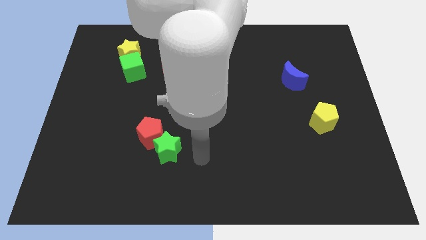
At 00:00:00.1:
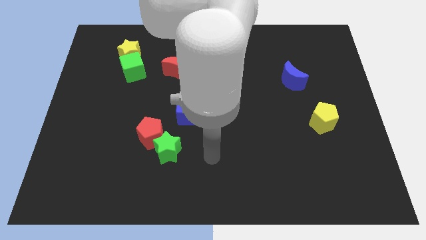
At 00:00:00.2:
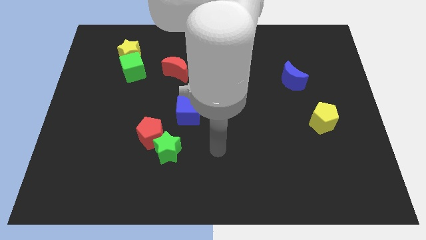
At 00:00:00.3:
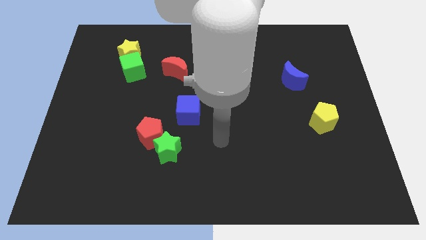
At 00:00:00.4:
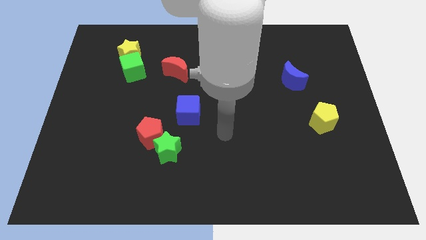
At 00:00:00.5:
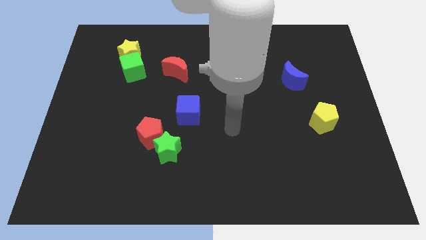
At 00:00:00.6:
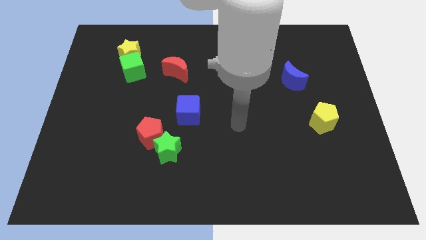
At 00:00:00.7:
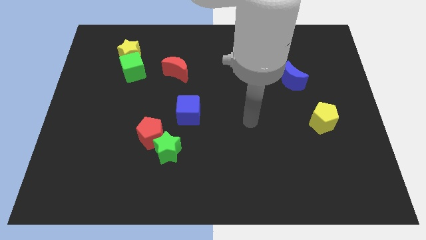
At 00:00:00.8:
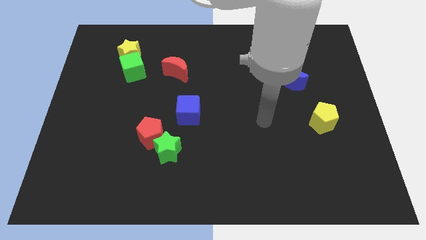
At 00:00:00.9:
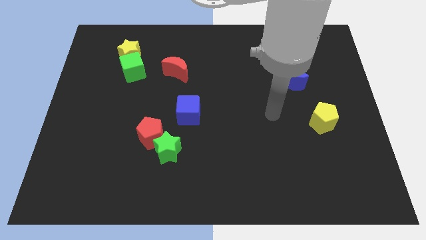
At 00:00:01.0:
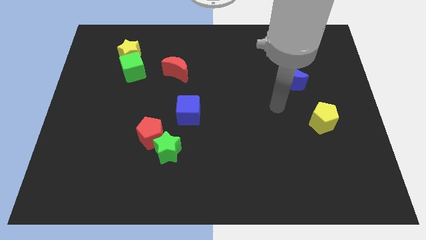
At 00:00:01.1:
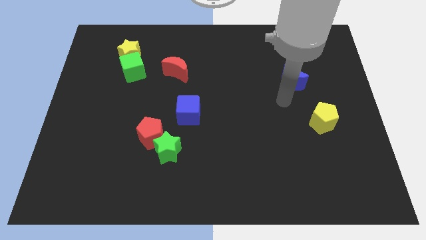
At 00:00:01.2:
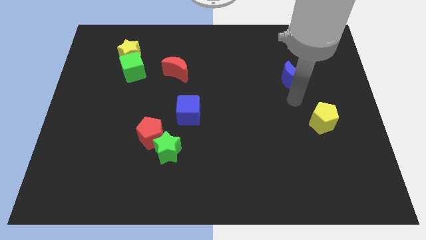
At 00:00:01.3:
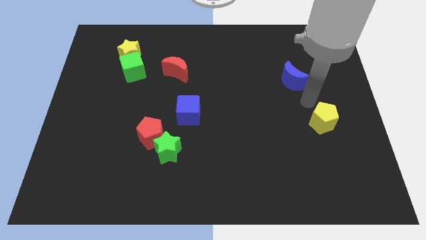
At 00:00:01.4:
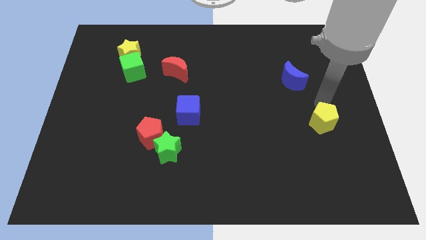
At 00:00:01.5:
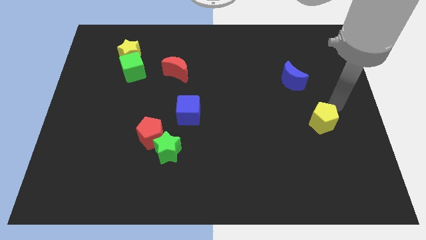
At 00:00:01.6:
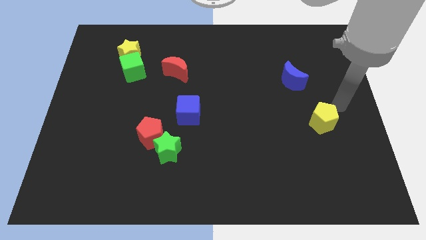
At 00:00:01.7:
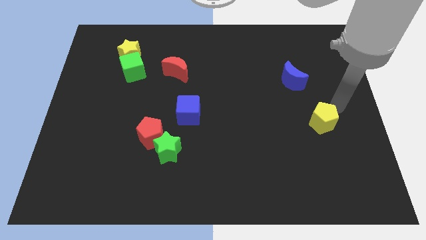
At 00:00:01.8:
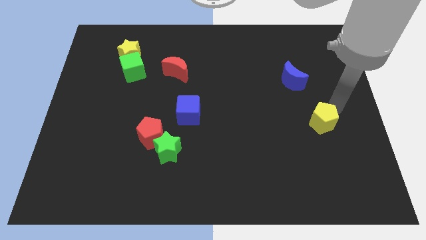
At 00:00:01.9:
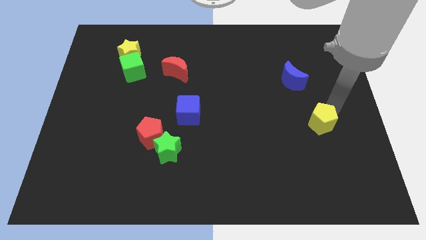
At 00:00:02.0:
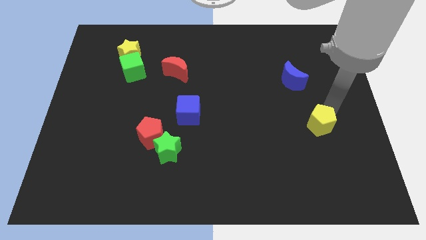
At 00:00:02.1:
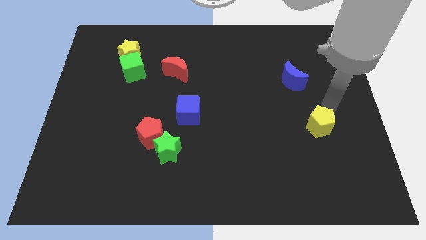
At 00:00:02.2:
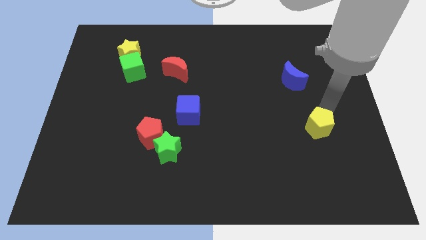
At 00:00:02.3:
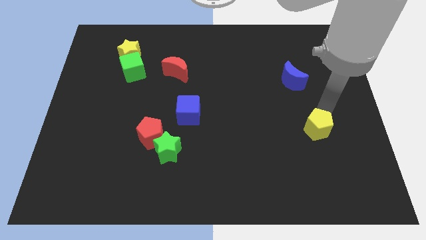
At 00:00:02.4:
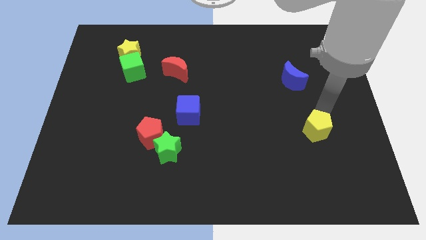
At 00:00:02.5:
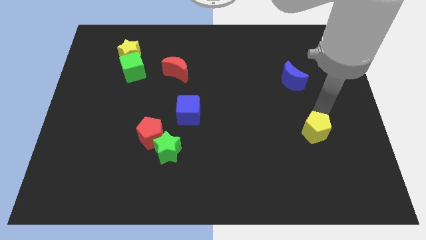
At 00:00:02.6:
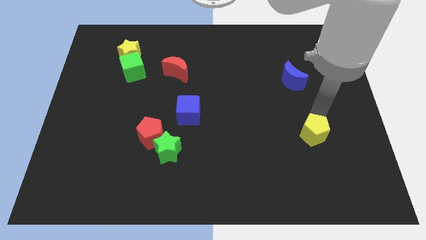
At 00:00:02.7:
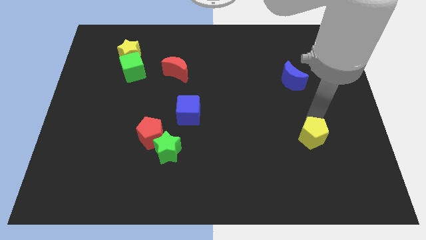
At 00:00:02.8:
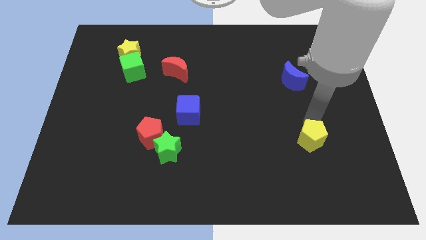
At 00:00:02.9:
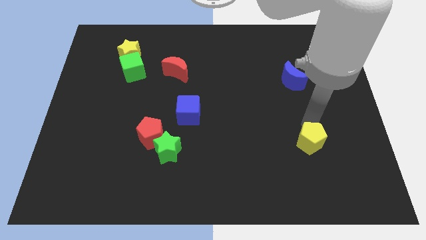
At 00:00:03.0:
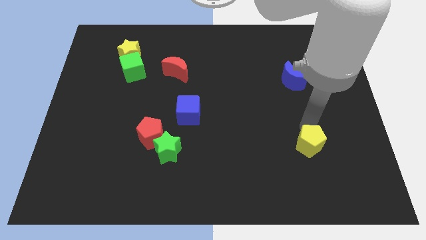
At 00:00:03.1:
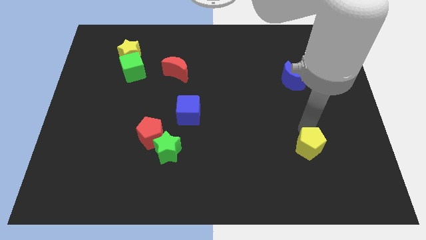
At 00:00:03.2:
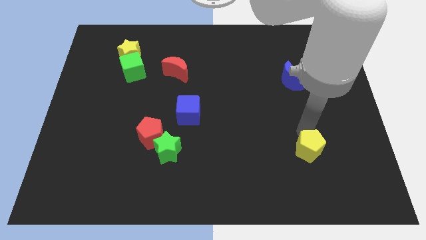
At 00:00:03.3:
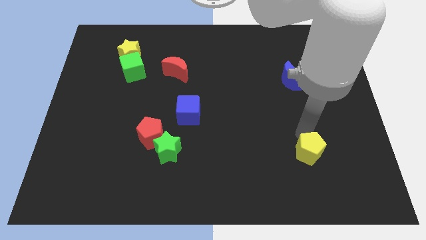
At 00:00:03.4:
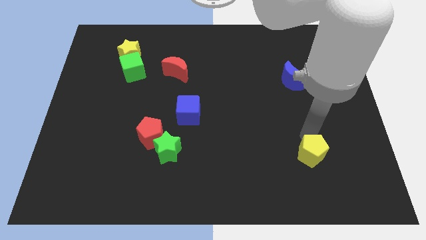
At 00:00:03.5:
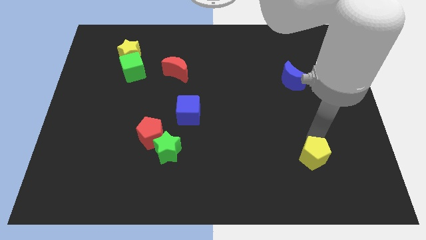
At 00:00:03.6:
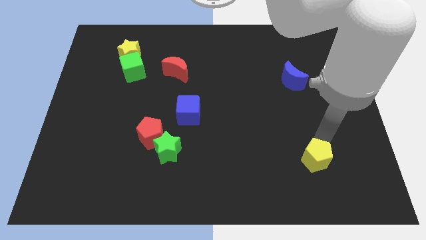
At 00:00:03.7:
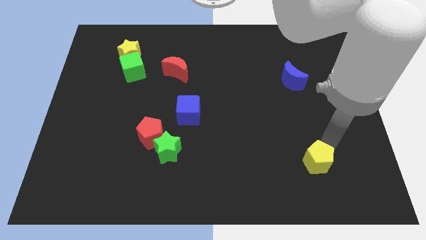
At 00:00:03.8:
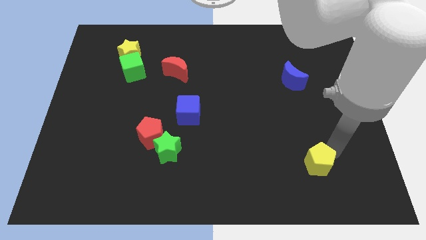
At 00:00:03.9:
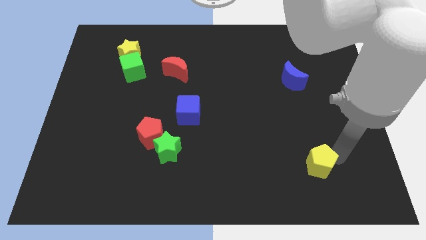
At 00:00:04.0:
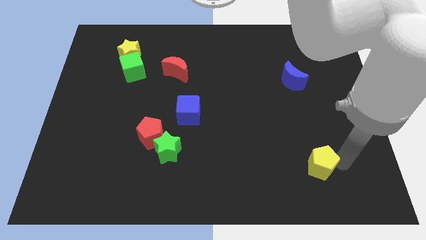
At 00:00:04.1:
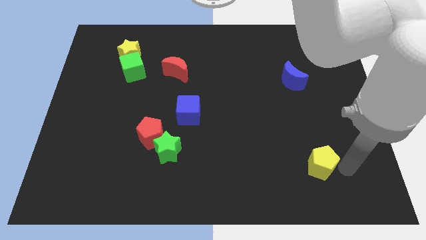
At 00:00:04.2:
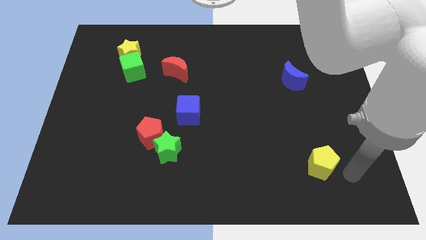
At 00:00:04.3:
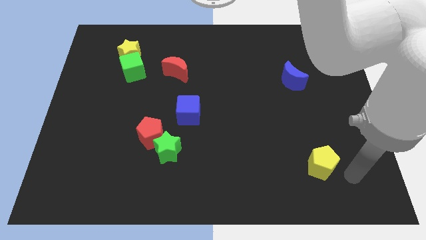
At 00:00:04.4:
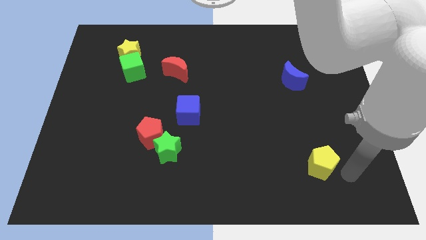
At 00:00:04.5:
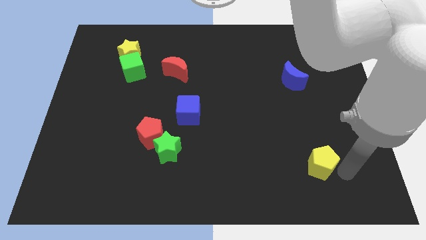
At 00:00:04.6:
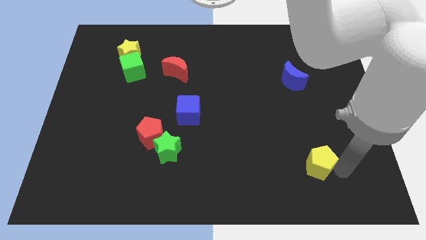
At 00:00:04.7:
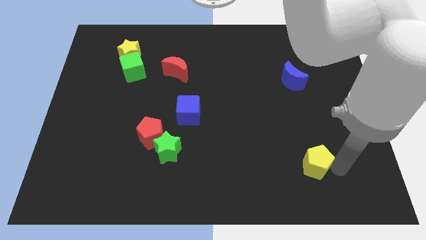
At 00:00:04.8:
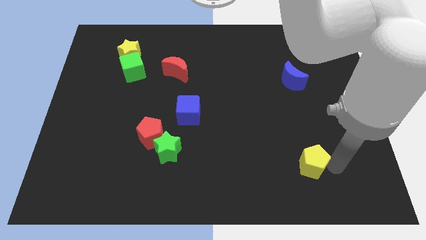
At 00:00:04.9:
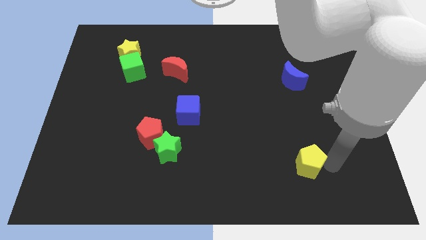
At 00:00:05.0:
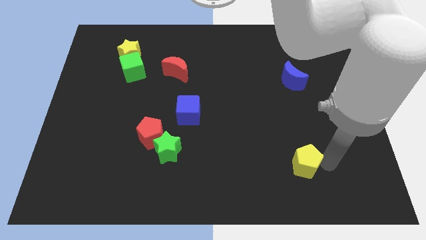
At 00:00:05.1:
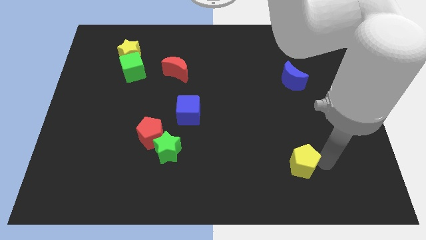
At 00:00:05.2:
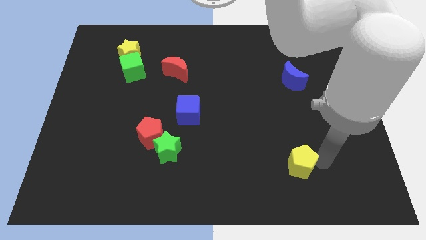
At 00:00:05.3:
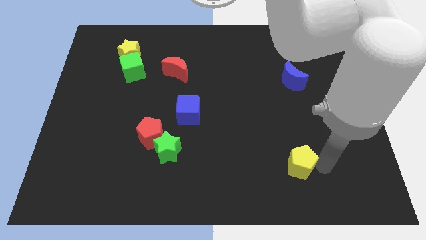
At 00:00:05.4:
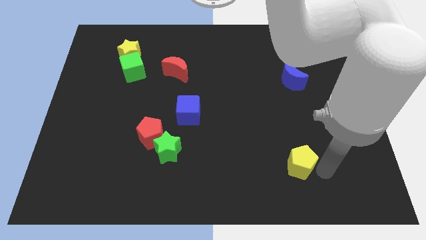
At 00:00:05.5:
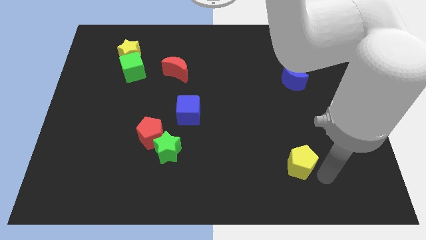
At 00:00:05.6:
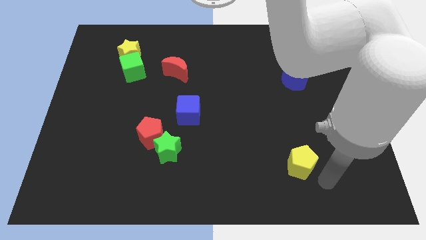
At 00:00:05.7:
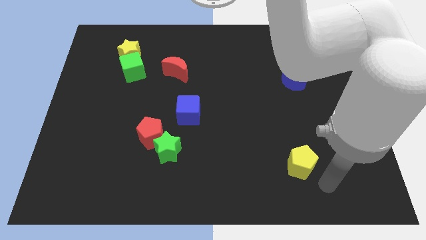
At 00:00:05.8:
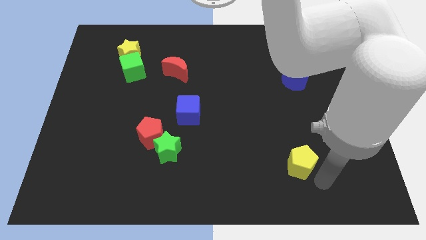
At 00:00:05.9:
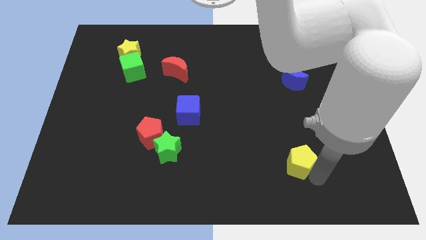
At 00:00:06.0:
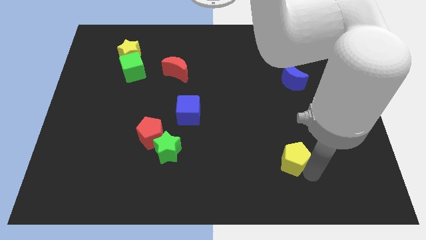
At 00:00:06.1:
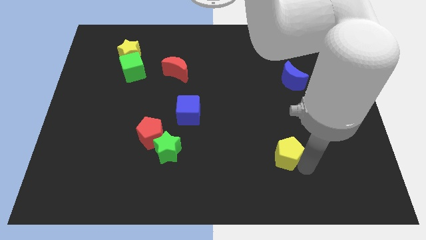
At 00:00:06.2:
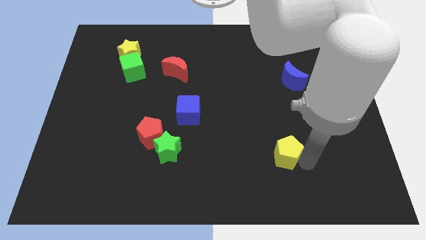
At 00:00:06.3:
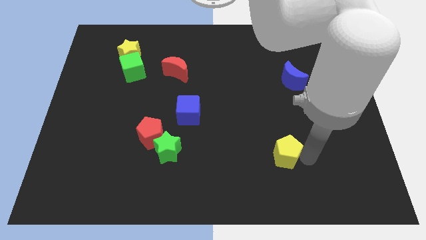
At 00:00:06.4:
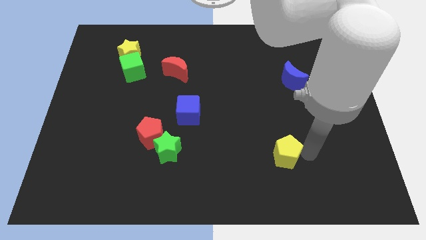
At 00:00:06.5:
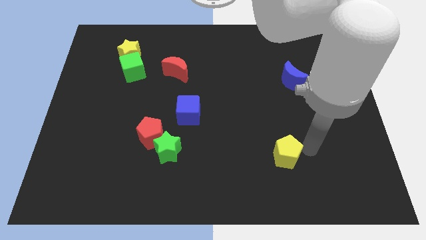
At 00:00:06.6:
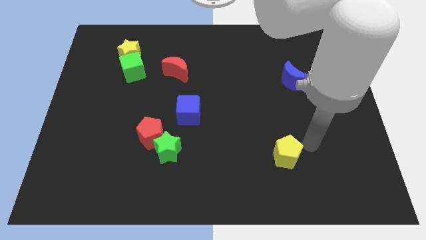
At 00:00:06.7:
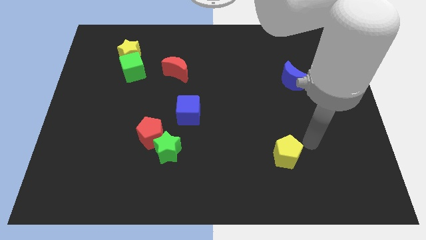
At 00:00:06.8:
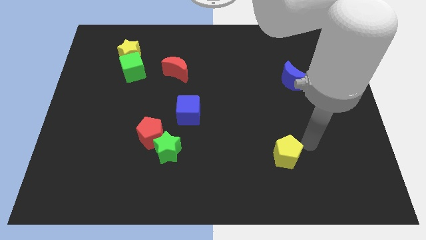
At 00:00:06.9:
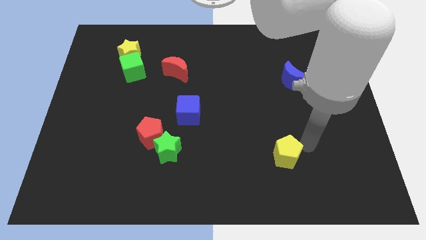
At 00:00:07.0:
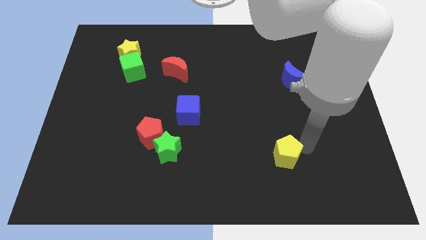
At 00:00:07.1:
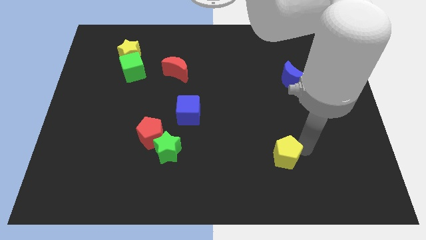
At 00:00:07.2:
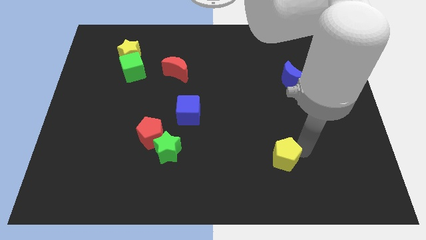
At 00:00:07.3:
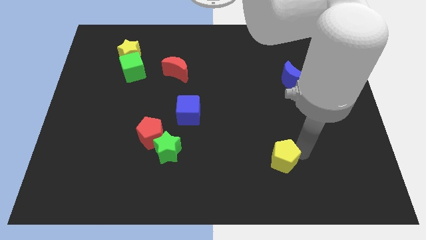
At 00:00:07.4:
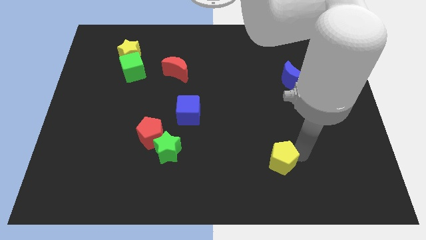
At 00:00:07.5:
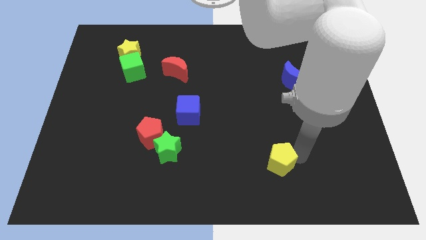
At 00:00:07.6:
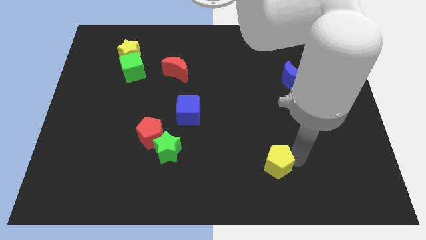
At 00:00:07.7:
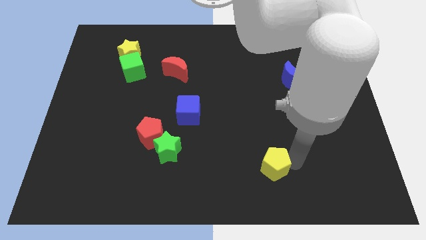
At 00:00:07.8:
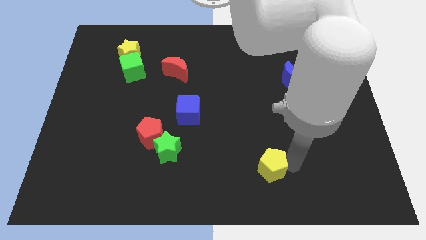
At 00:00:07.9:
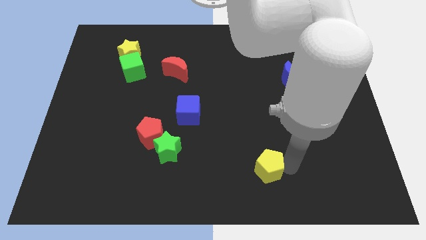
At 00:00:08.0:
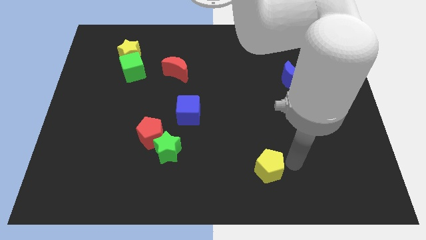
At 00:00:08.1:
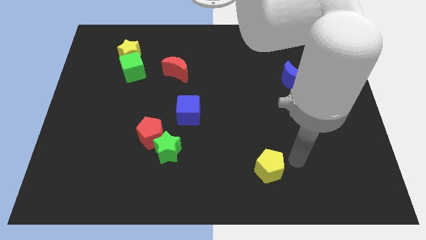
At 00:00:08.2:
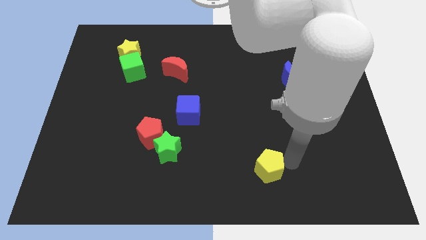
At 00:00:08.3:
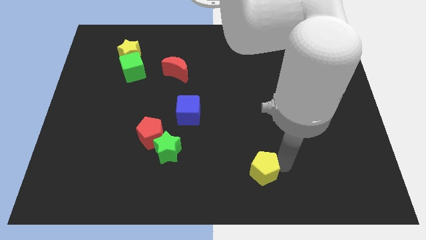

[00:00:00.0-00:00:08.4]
put the yellow pentagon to the bottom side
